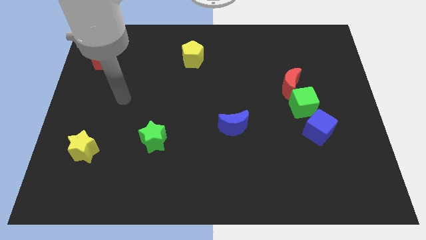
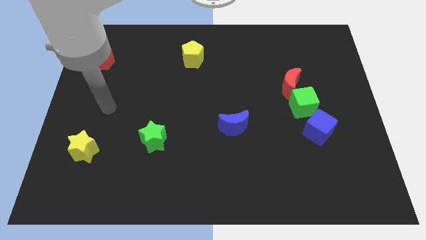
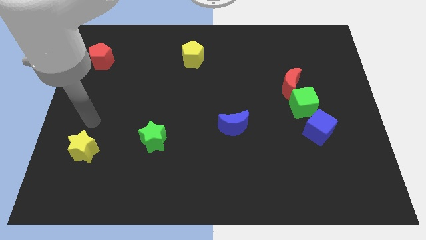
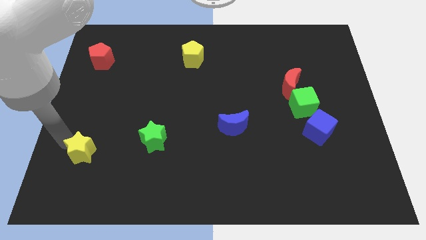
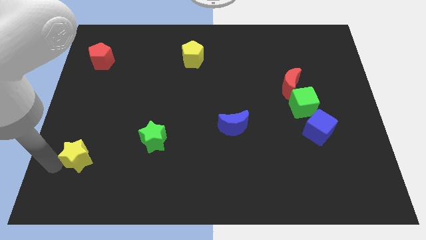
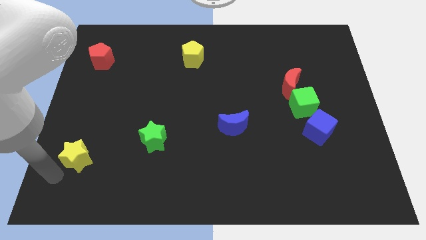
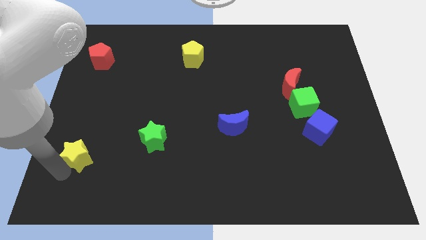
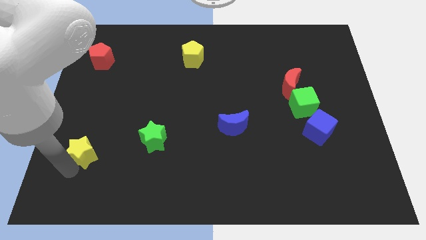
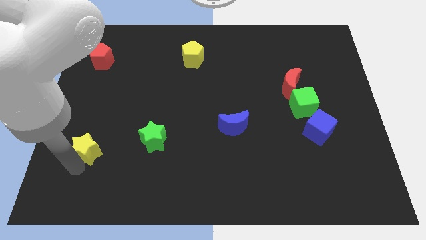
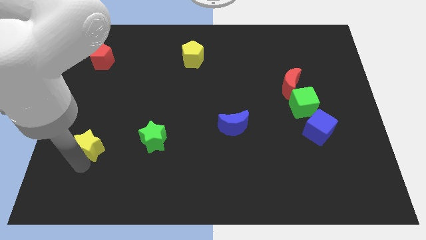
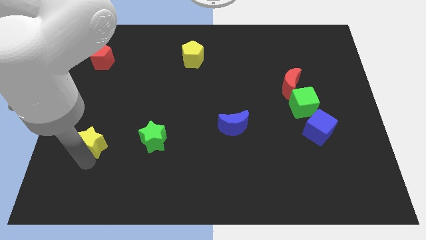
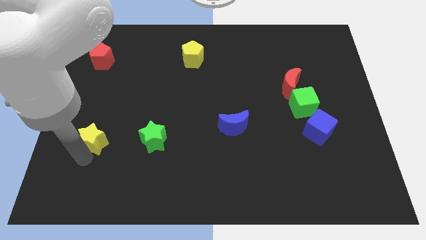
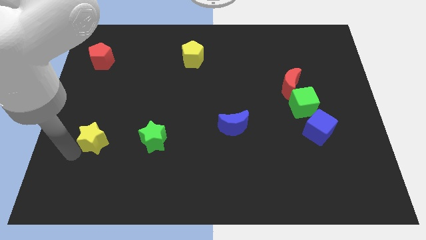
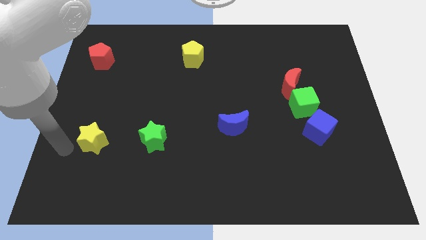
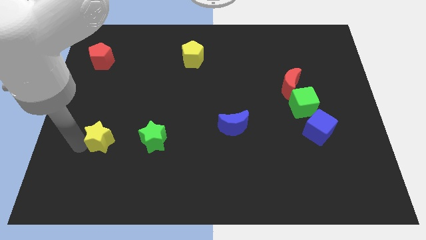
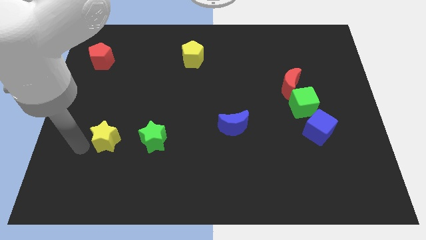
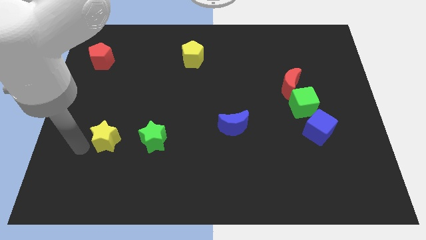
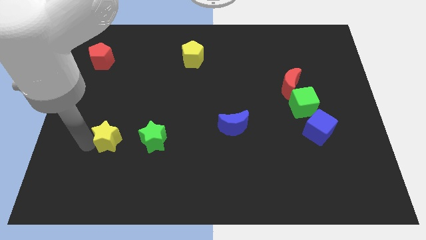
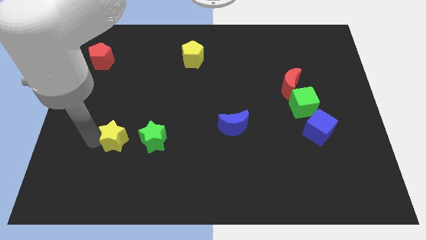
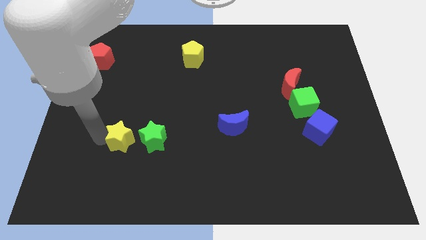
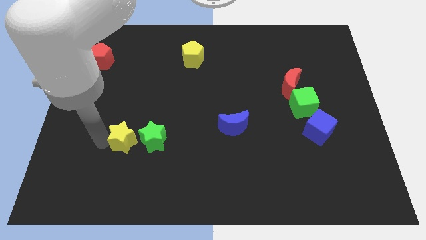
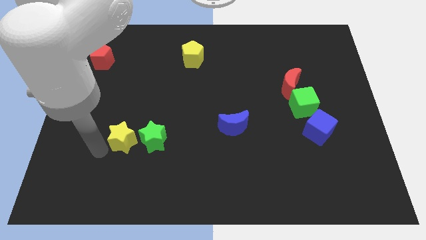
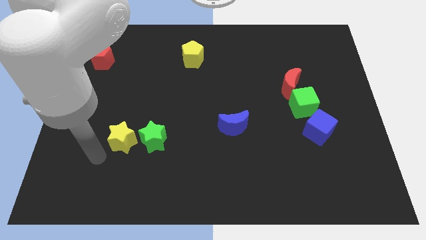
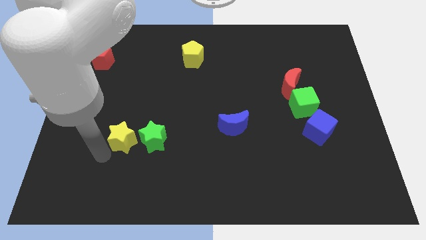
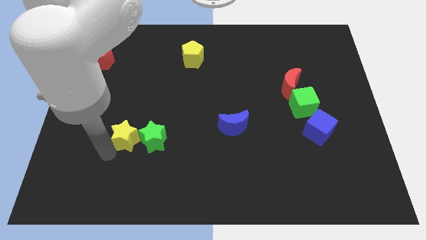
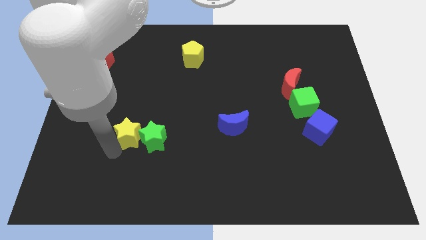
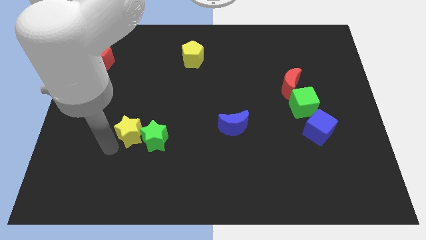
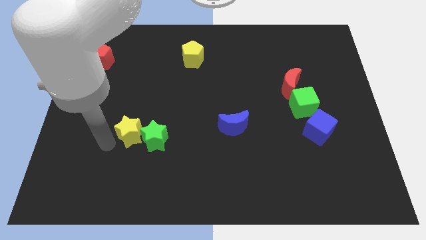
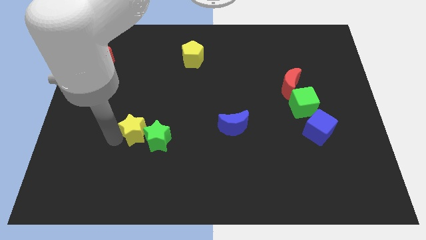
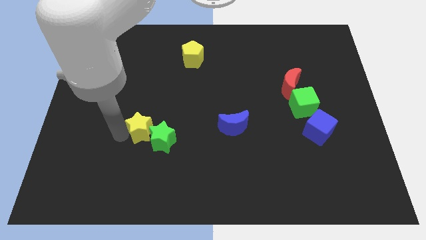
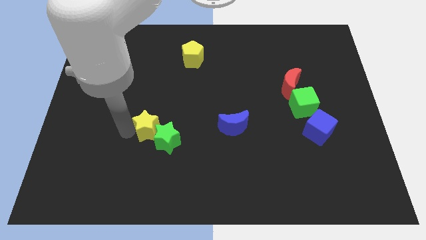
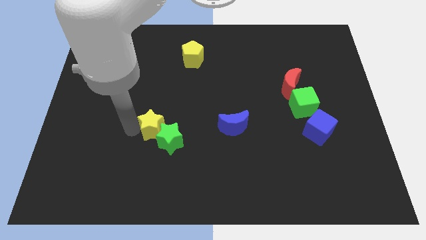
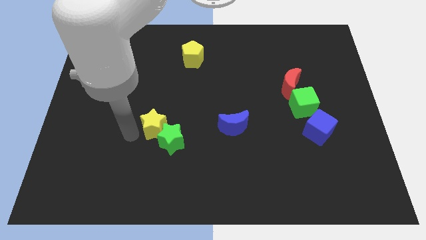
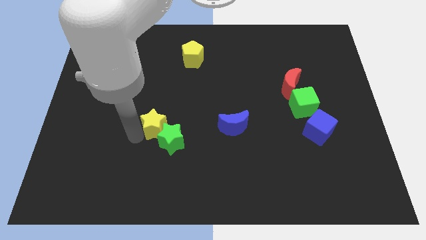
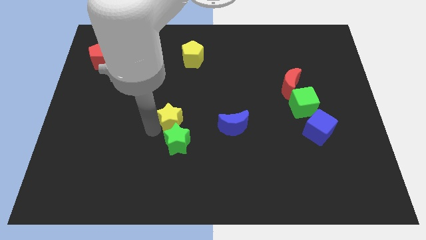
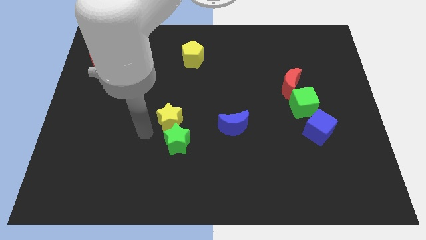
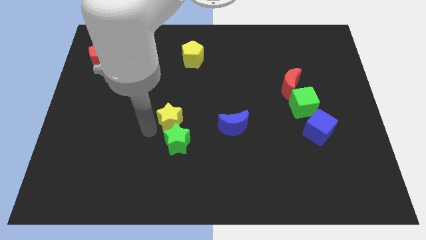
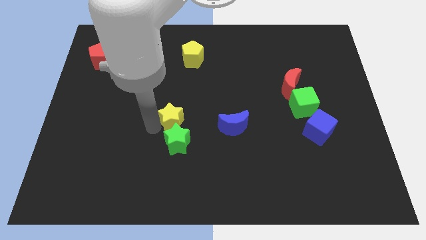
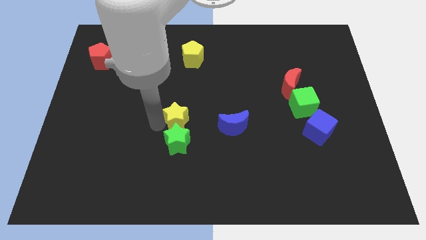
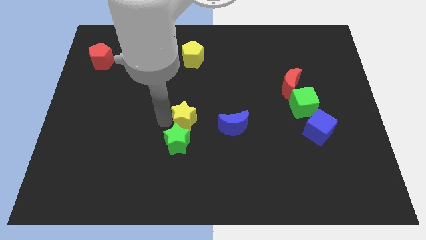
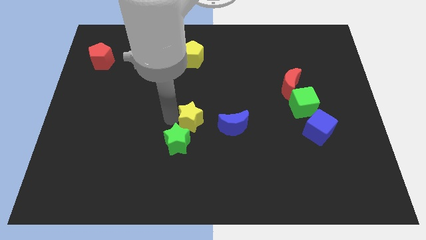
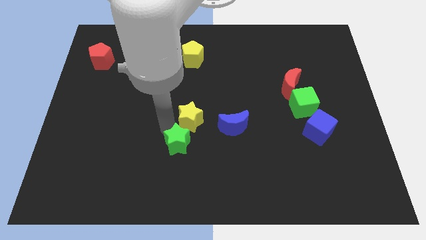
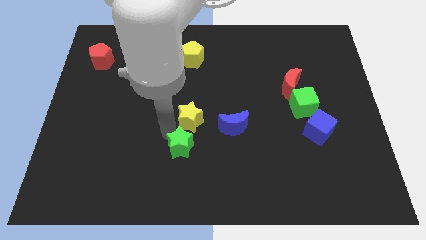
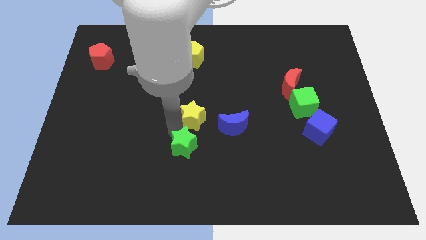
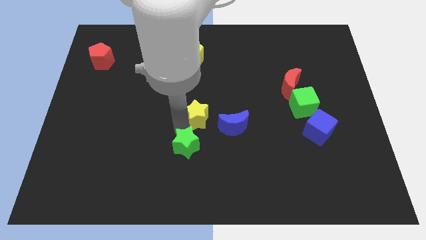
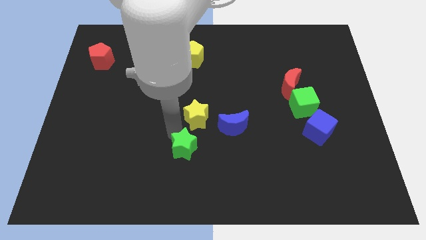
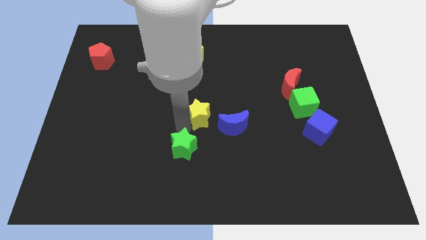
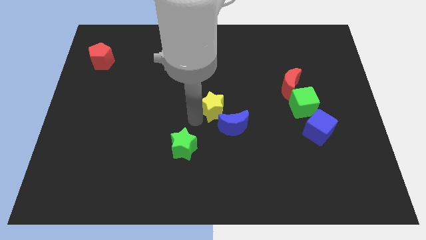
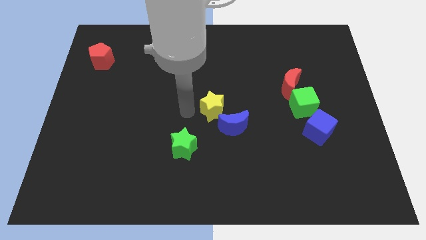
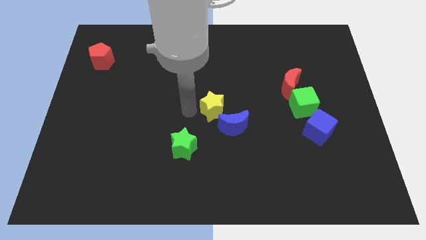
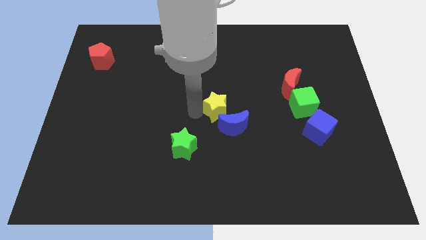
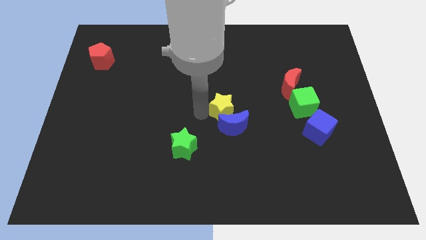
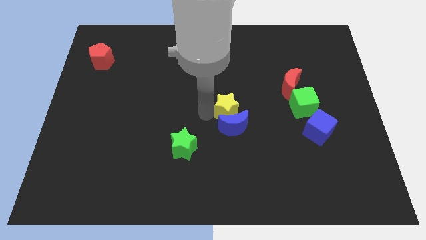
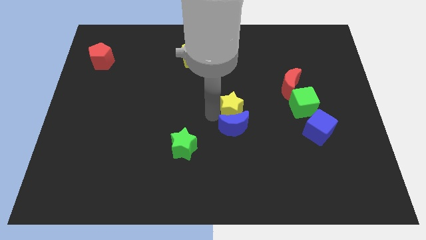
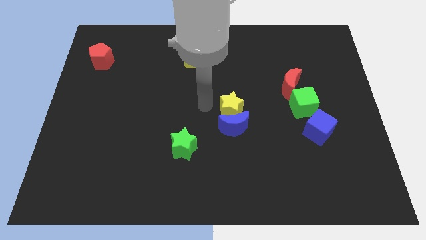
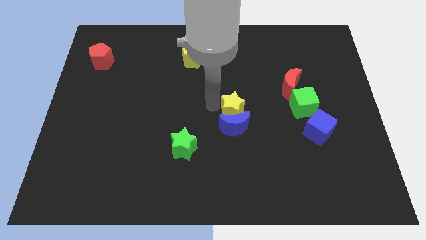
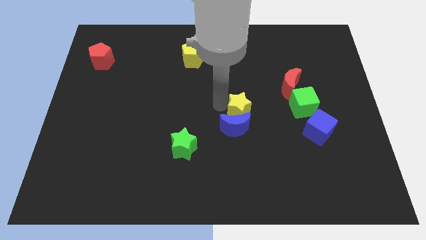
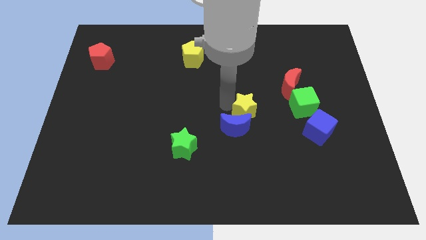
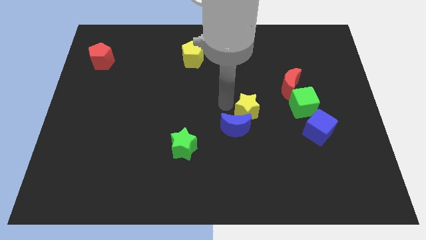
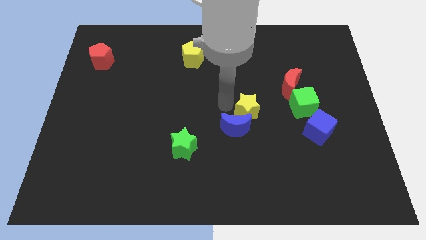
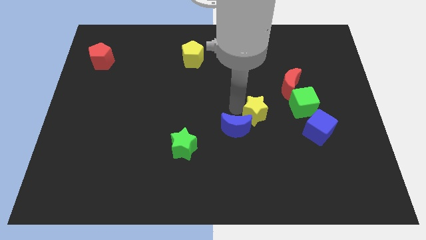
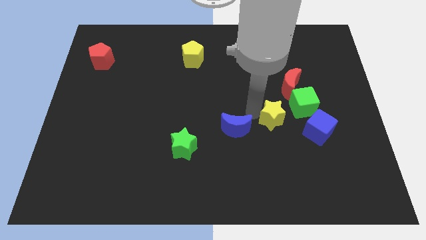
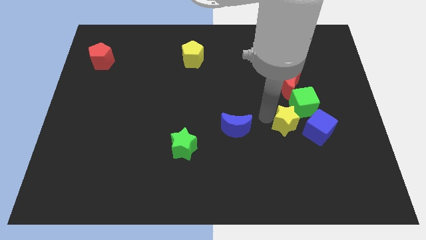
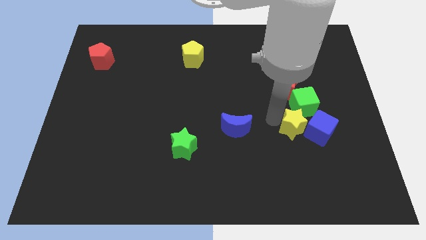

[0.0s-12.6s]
move the yellow star towards the blue cube

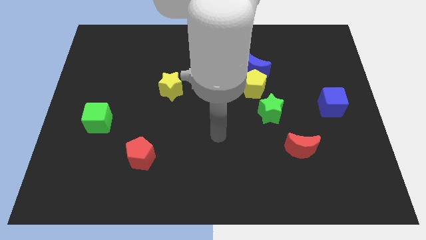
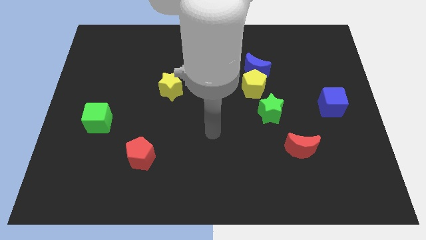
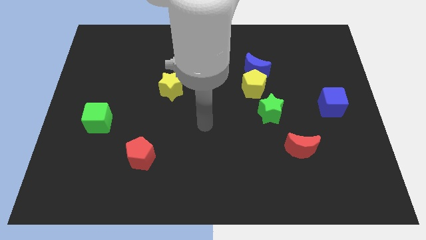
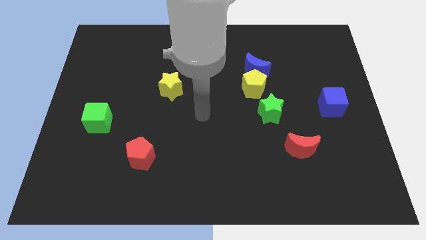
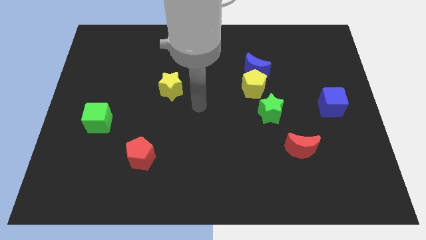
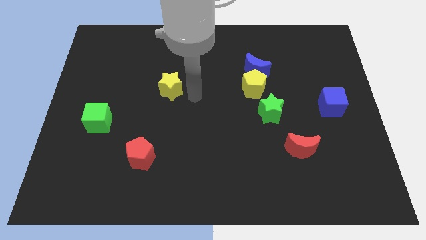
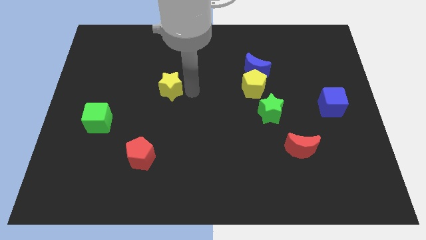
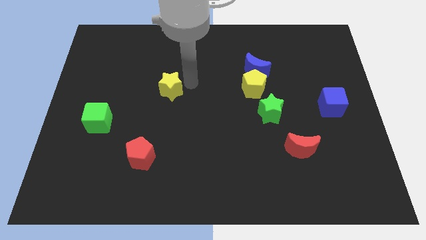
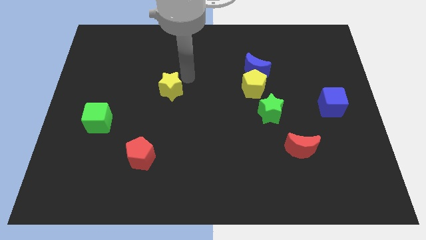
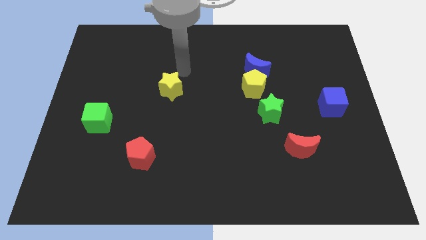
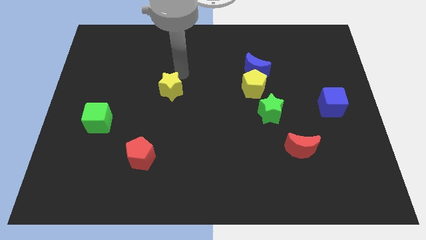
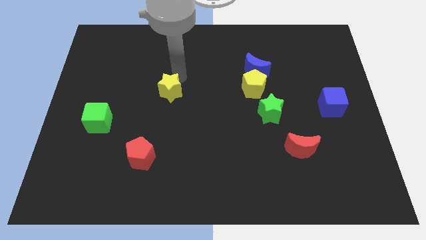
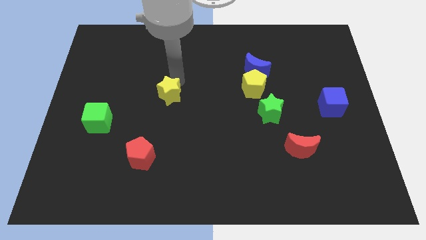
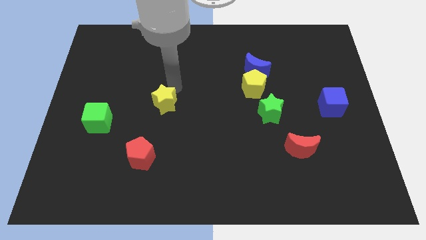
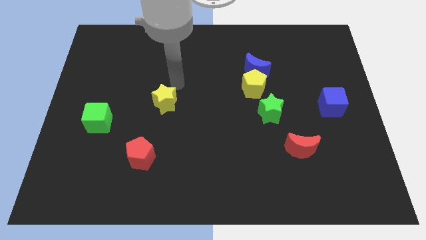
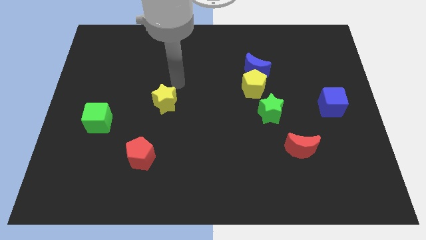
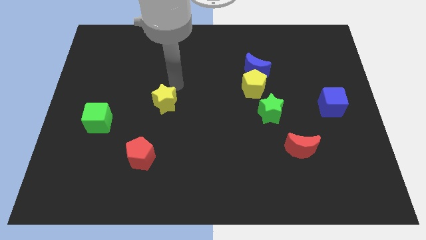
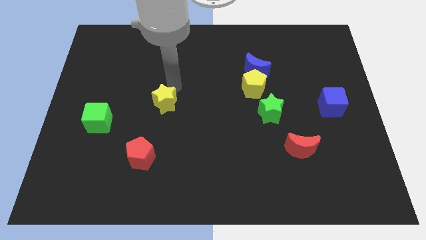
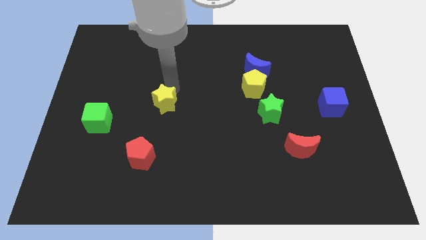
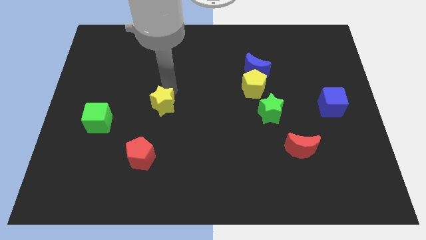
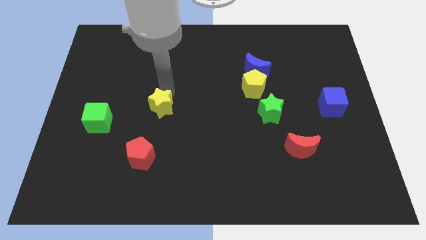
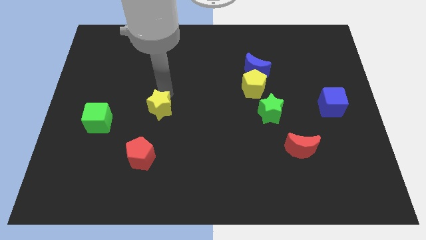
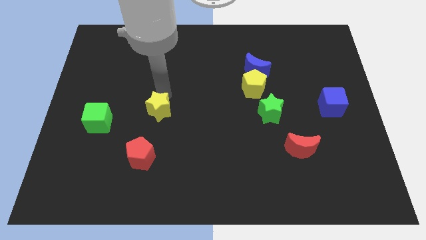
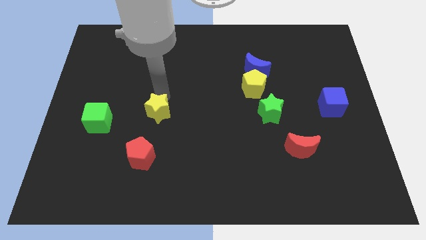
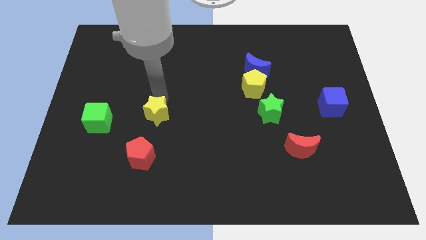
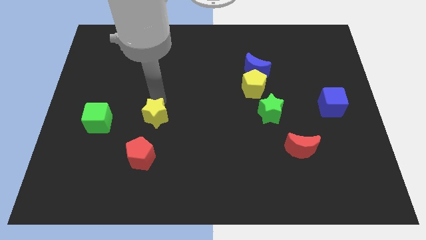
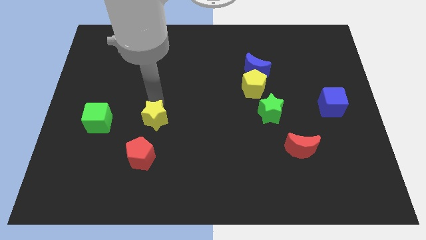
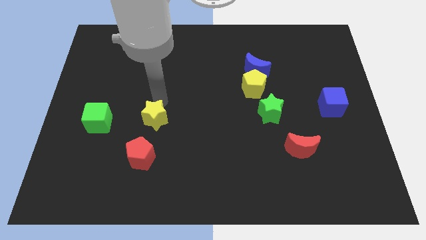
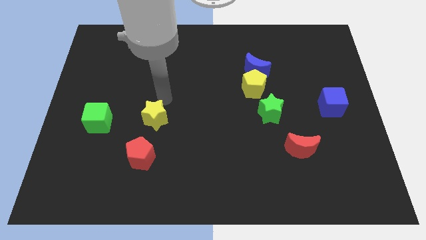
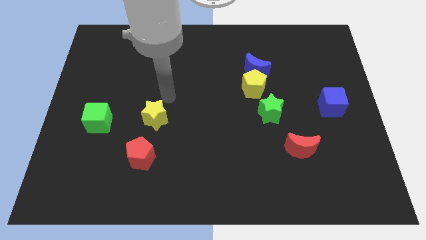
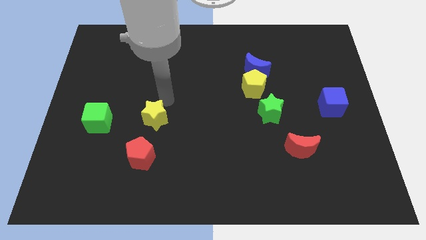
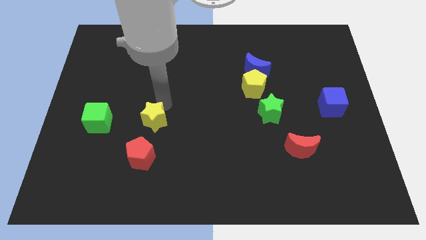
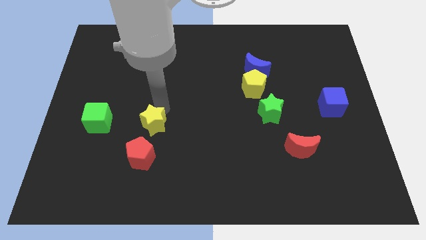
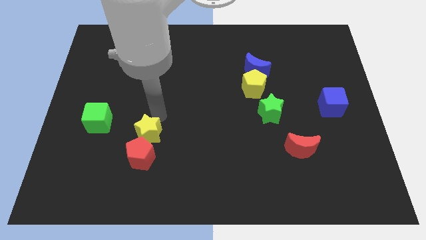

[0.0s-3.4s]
slide the yellow star to the red pentagon
